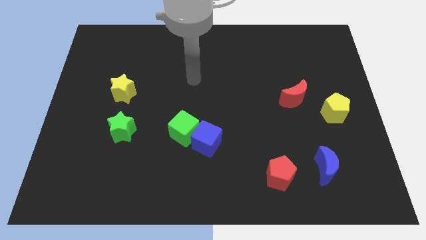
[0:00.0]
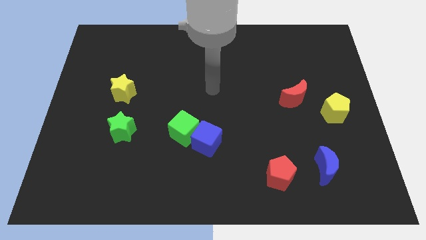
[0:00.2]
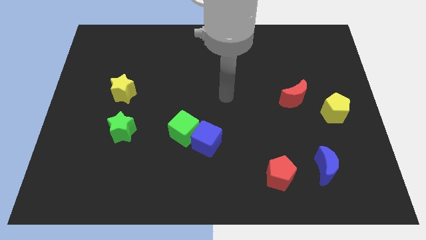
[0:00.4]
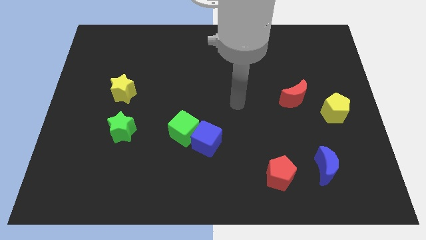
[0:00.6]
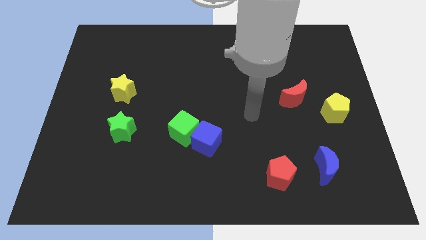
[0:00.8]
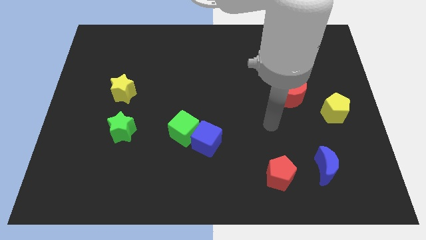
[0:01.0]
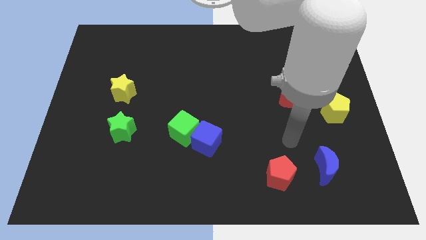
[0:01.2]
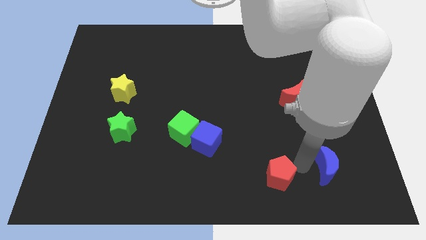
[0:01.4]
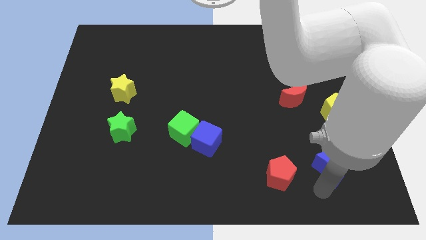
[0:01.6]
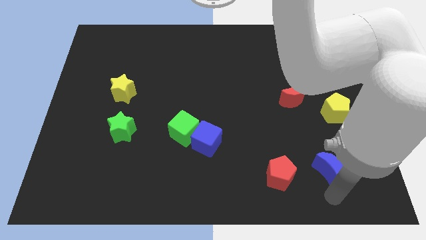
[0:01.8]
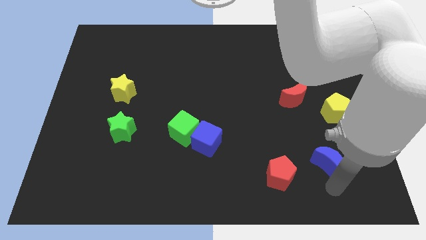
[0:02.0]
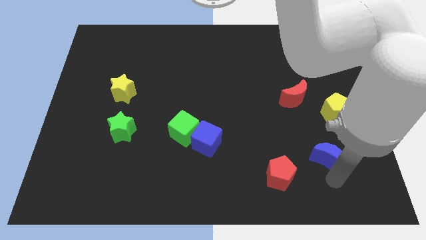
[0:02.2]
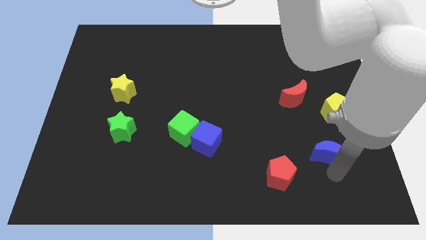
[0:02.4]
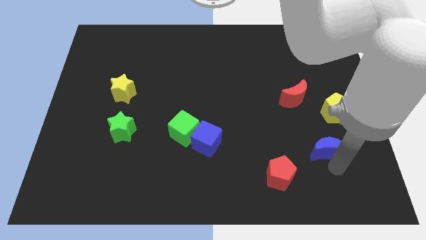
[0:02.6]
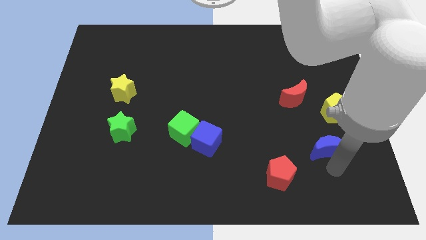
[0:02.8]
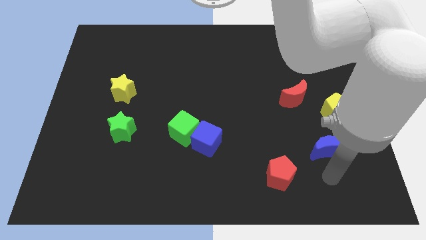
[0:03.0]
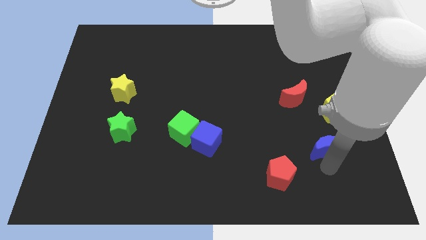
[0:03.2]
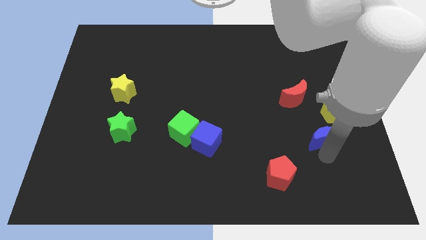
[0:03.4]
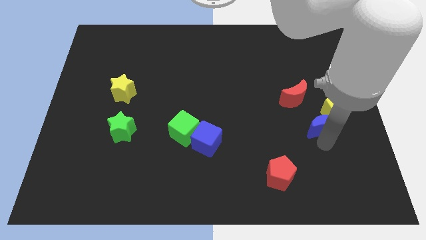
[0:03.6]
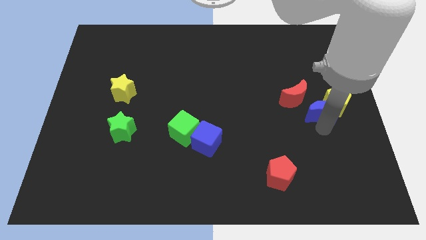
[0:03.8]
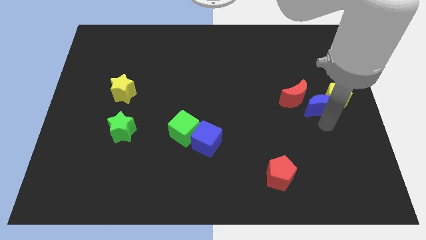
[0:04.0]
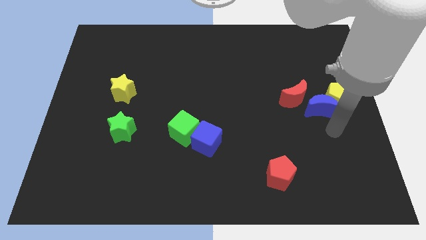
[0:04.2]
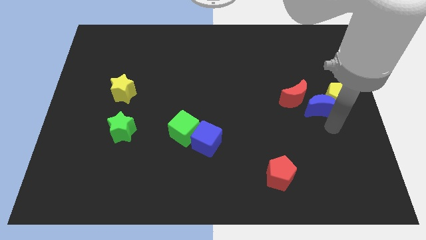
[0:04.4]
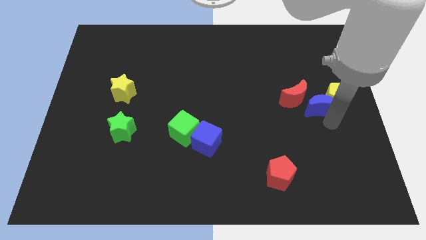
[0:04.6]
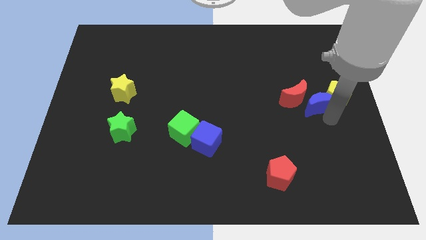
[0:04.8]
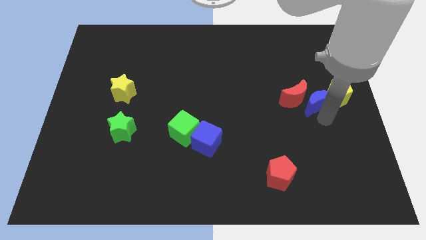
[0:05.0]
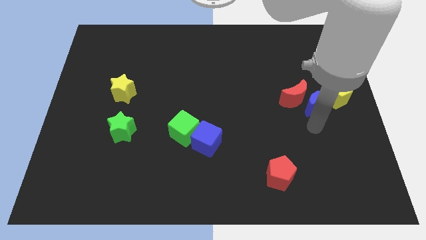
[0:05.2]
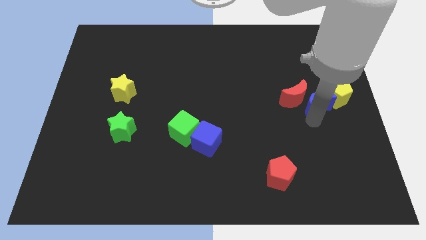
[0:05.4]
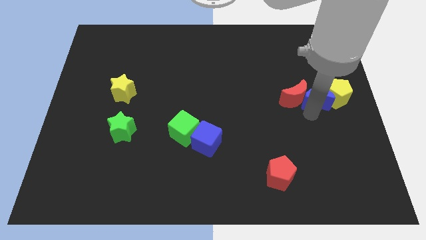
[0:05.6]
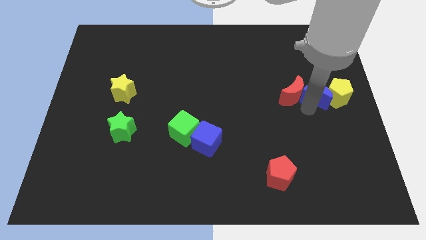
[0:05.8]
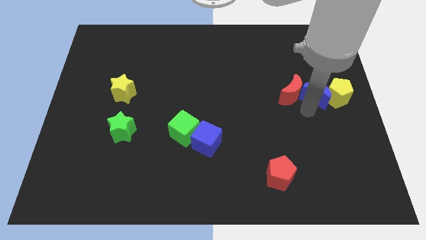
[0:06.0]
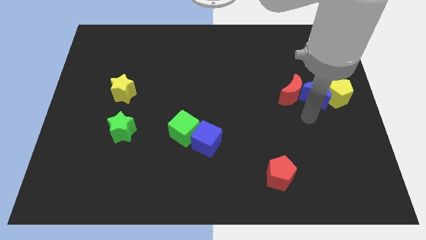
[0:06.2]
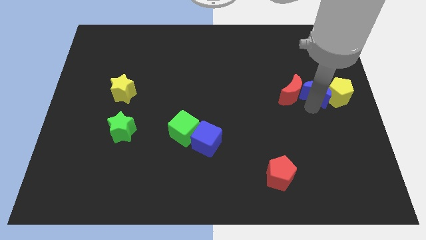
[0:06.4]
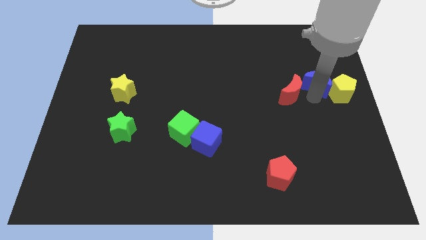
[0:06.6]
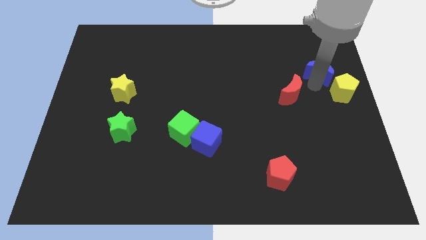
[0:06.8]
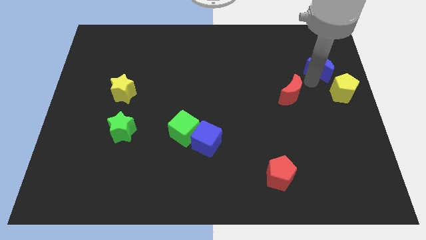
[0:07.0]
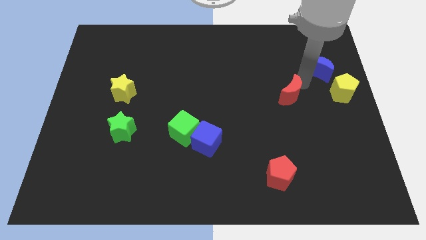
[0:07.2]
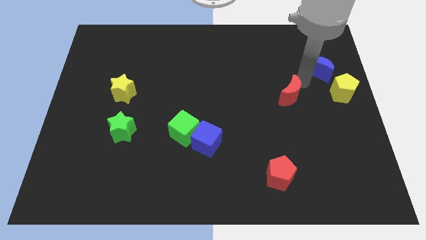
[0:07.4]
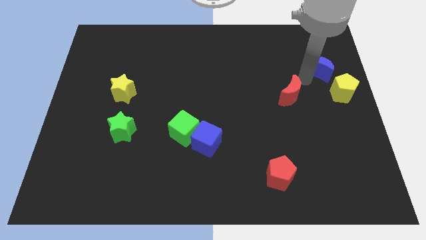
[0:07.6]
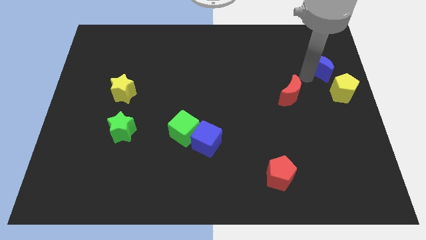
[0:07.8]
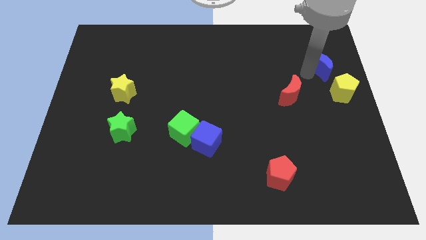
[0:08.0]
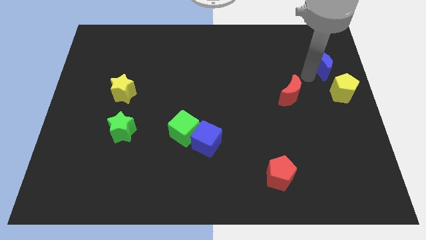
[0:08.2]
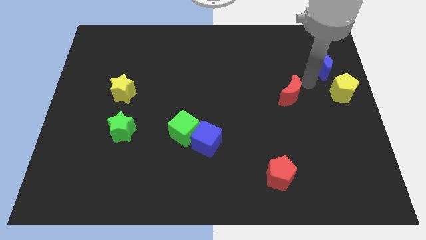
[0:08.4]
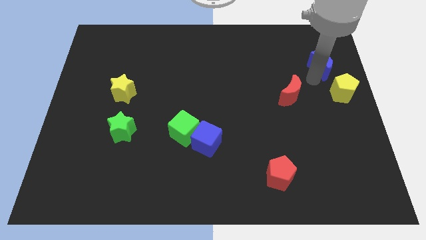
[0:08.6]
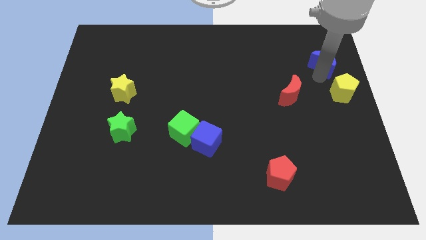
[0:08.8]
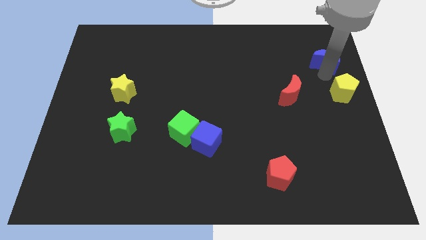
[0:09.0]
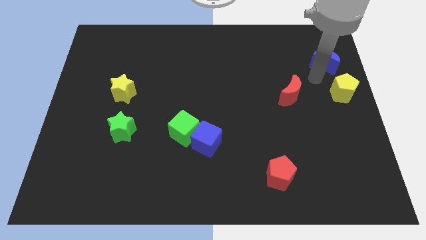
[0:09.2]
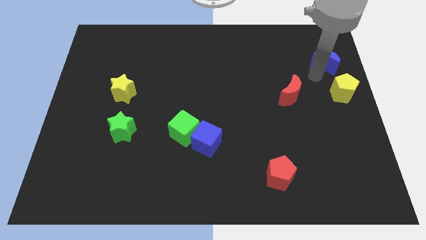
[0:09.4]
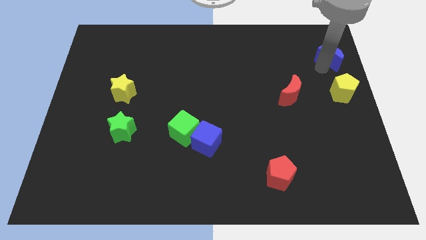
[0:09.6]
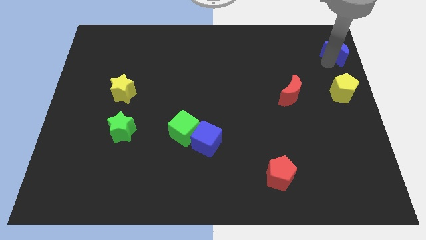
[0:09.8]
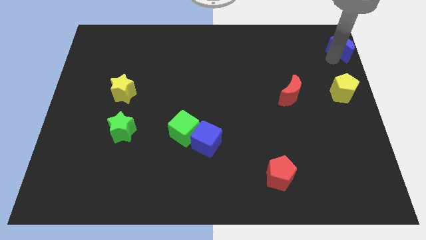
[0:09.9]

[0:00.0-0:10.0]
push the blue moon to the top right

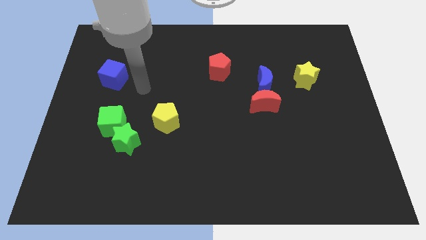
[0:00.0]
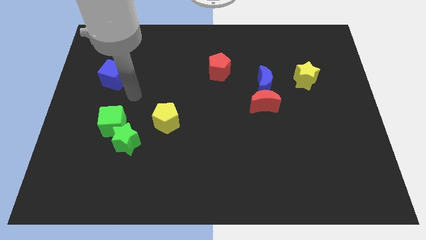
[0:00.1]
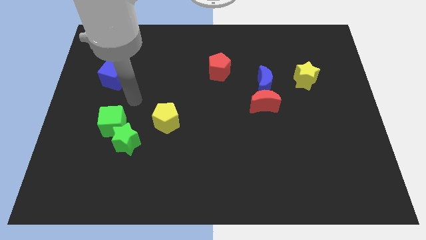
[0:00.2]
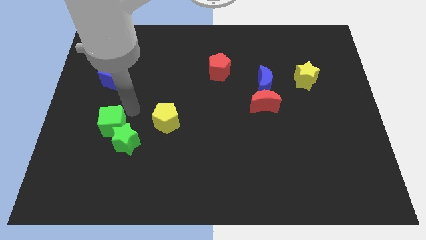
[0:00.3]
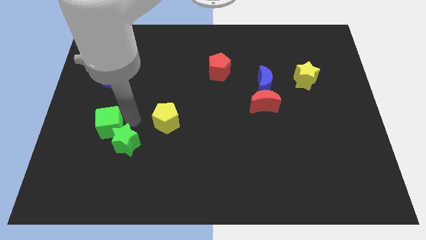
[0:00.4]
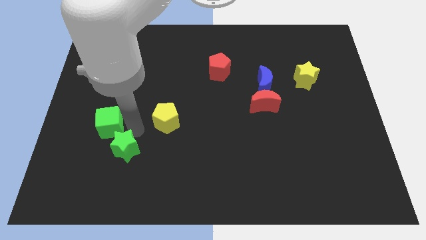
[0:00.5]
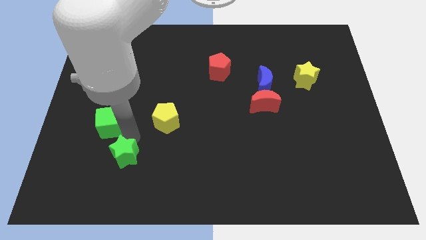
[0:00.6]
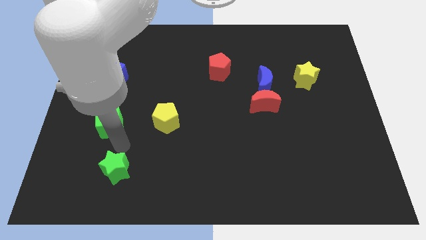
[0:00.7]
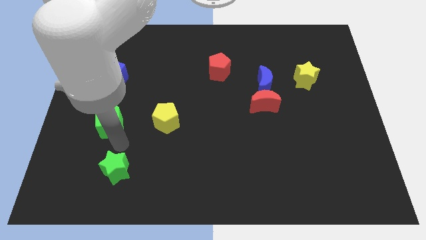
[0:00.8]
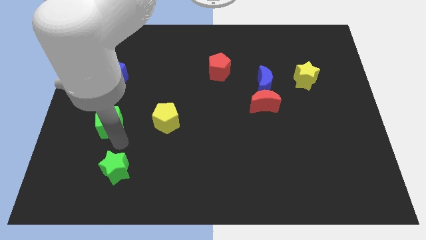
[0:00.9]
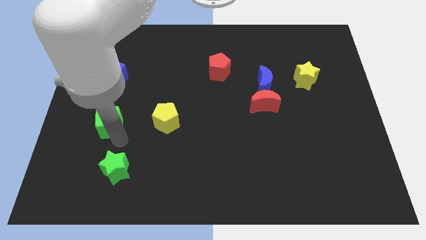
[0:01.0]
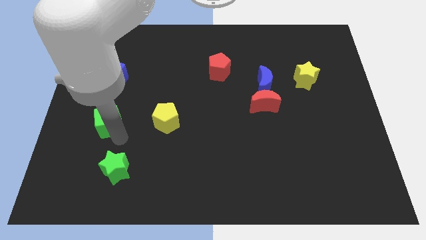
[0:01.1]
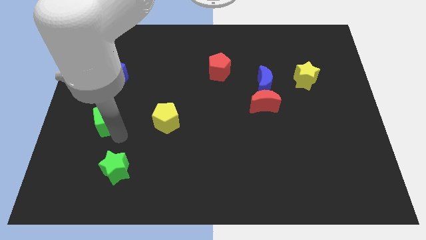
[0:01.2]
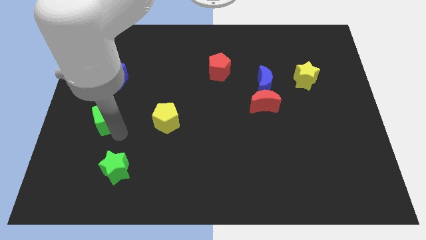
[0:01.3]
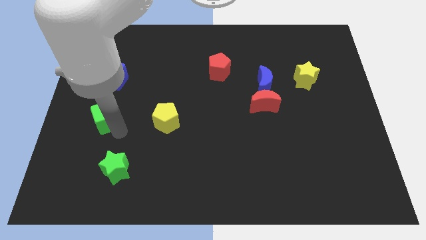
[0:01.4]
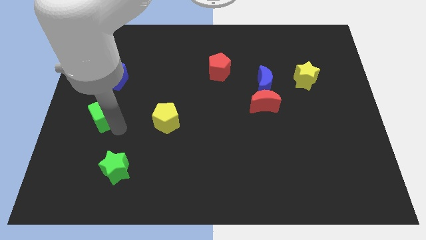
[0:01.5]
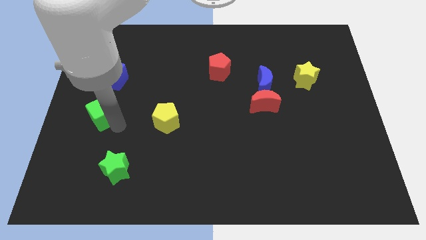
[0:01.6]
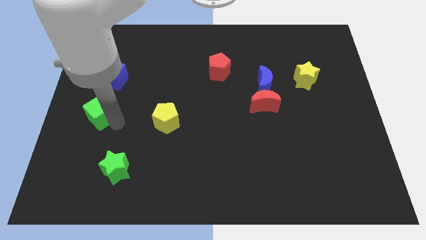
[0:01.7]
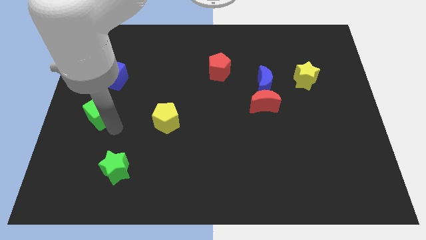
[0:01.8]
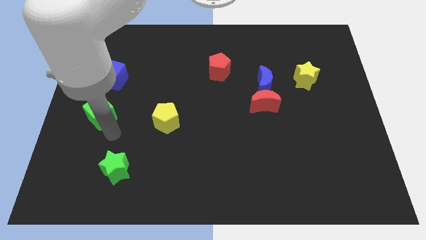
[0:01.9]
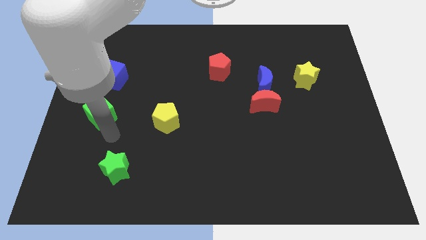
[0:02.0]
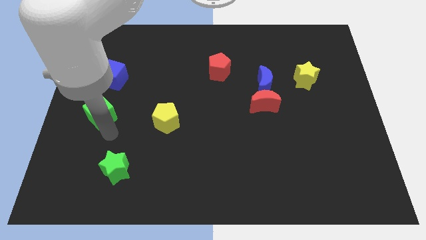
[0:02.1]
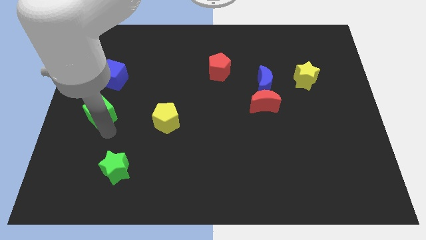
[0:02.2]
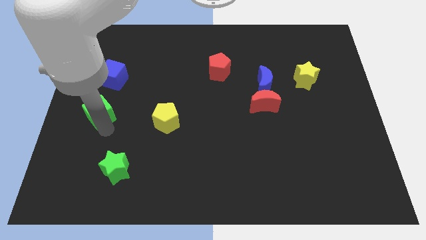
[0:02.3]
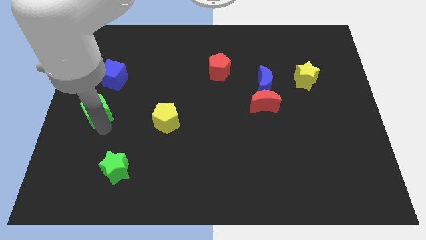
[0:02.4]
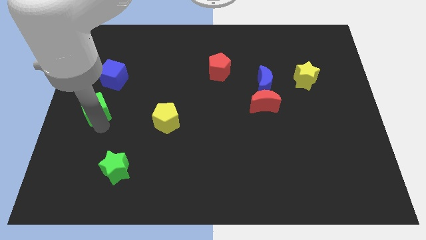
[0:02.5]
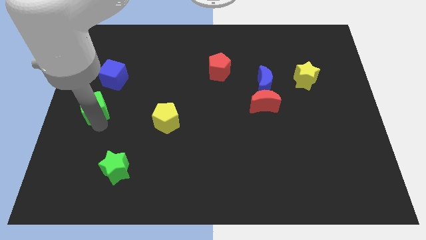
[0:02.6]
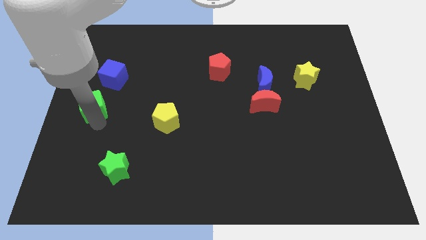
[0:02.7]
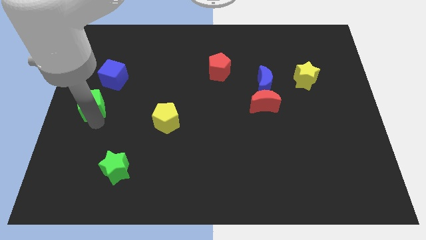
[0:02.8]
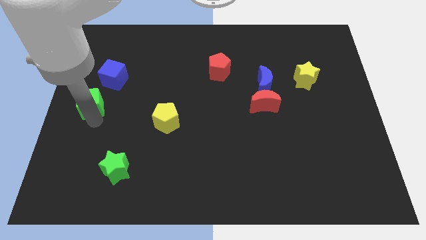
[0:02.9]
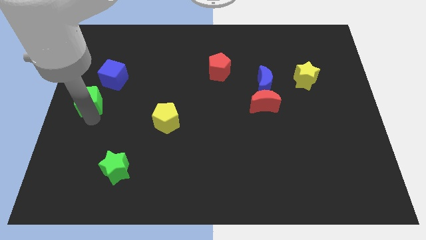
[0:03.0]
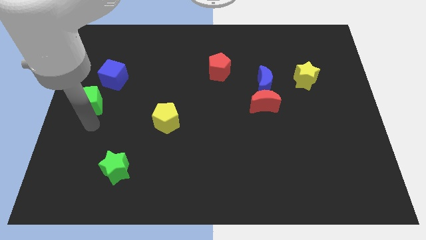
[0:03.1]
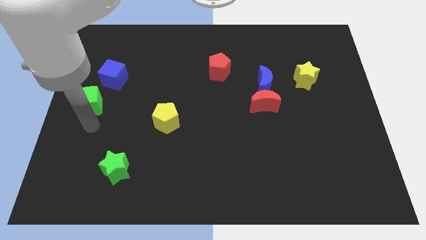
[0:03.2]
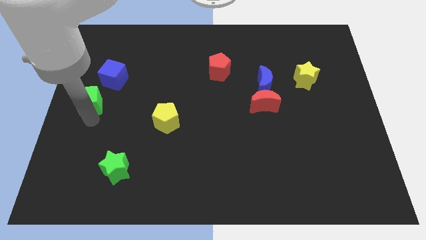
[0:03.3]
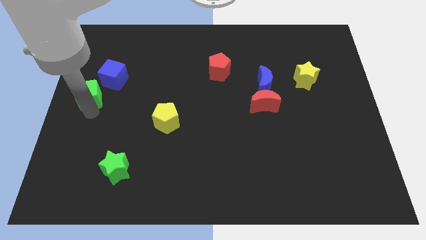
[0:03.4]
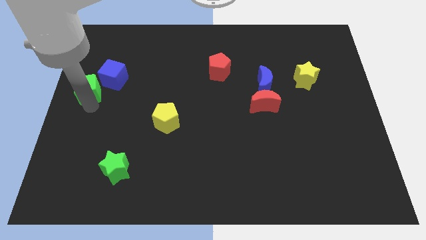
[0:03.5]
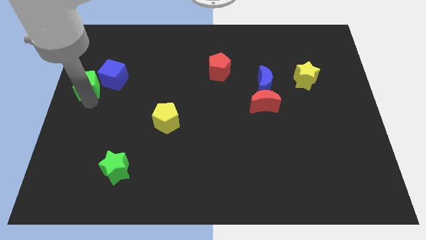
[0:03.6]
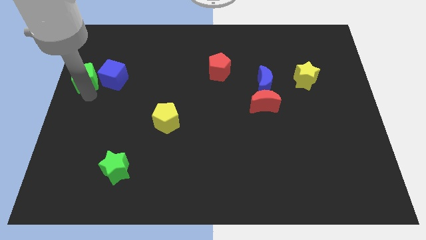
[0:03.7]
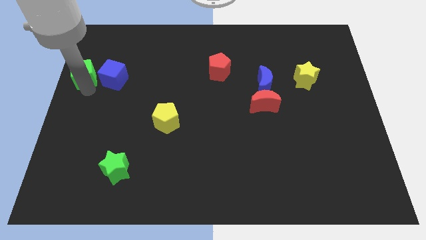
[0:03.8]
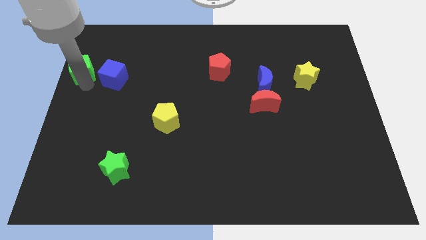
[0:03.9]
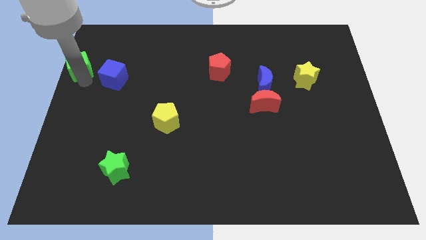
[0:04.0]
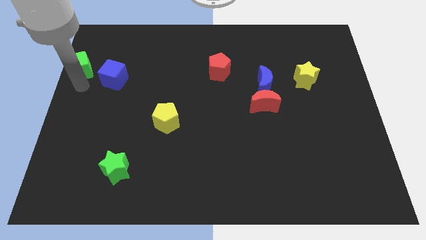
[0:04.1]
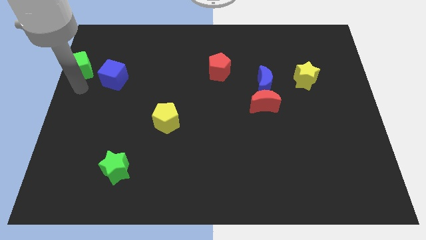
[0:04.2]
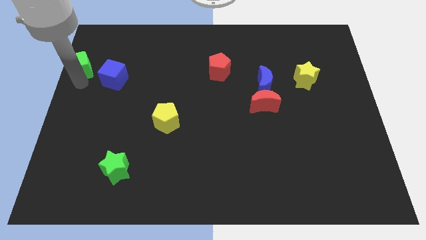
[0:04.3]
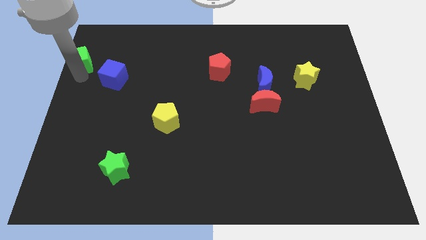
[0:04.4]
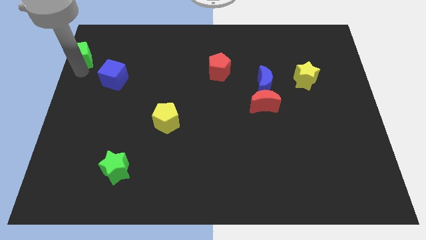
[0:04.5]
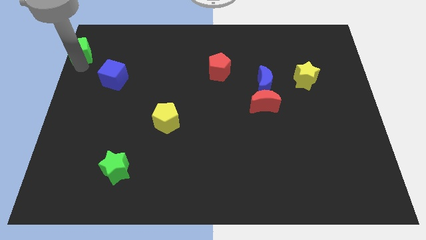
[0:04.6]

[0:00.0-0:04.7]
push the green cube to the top left
